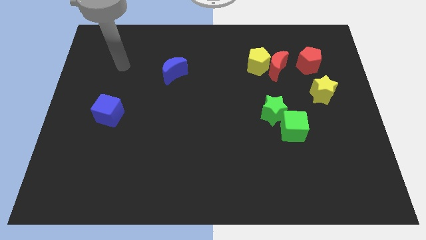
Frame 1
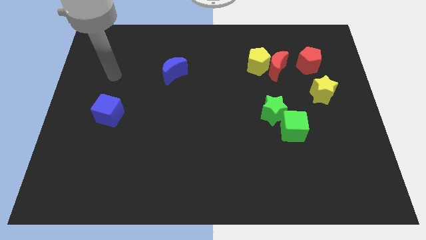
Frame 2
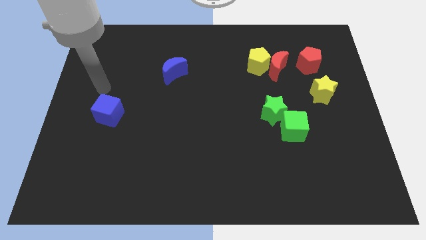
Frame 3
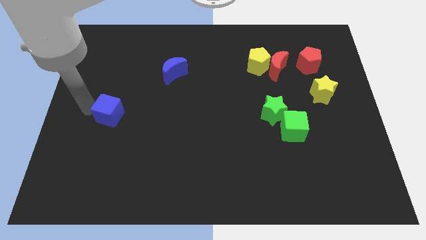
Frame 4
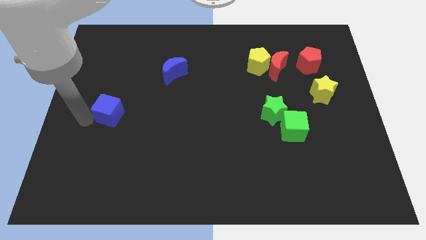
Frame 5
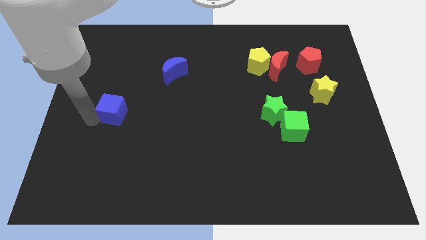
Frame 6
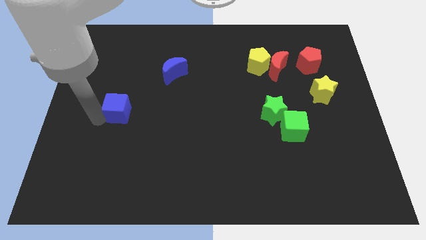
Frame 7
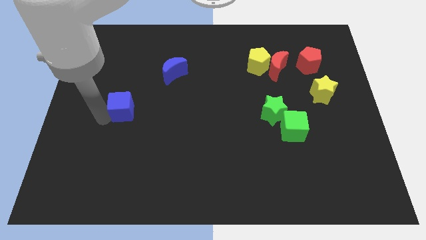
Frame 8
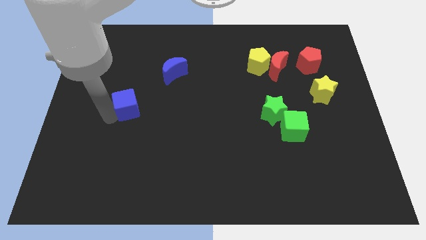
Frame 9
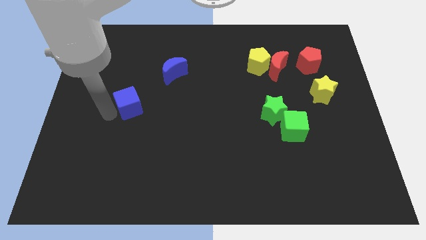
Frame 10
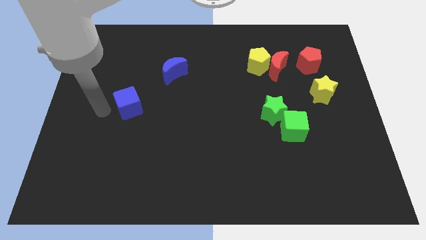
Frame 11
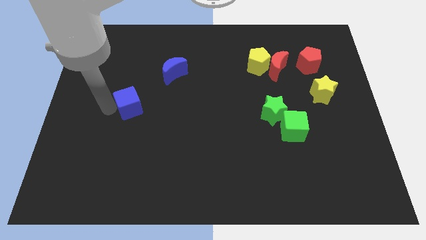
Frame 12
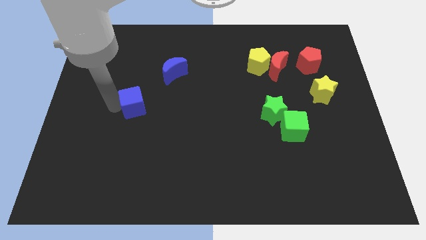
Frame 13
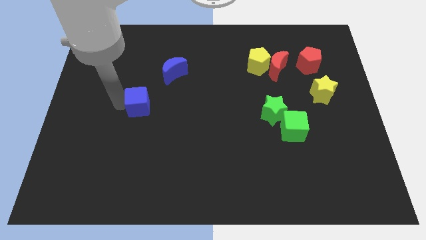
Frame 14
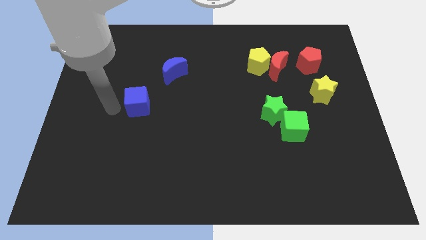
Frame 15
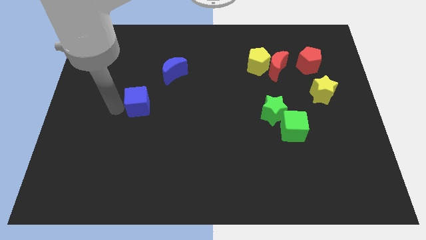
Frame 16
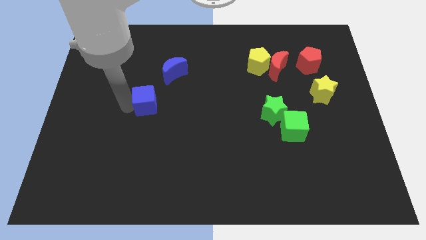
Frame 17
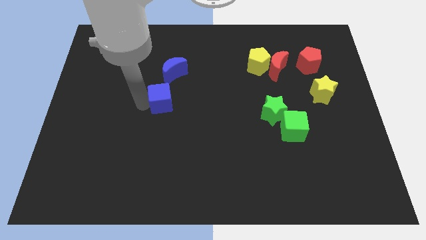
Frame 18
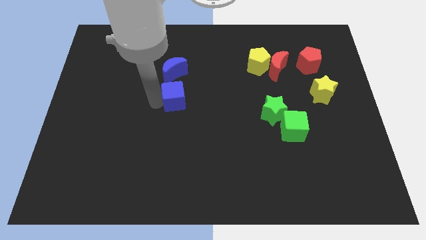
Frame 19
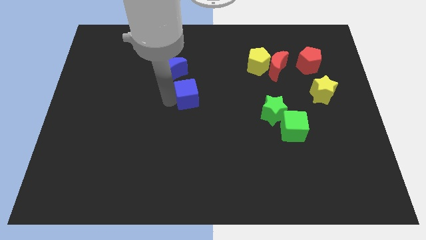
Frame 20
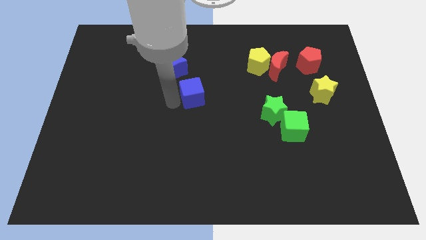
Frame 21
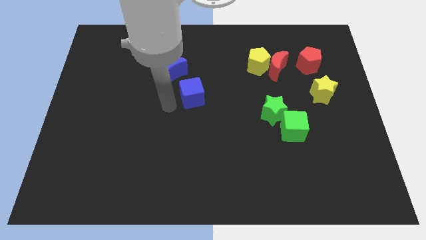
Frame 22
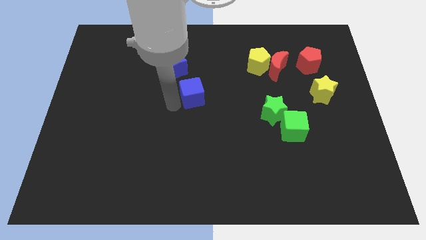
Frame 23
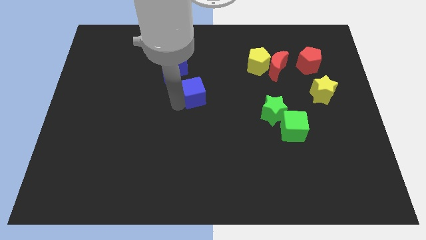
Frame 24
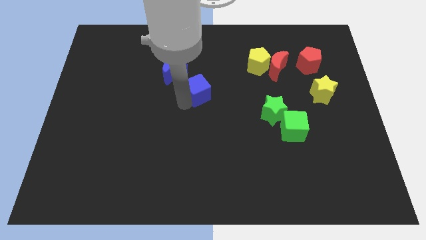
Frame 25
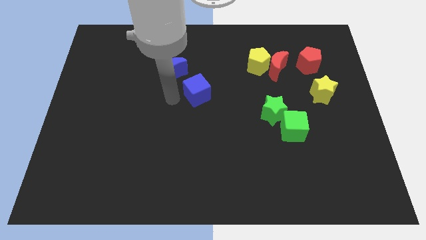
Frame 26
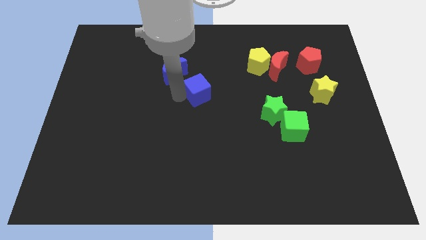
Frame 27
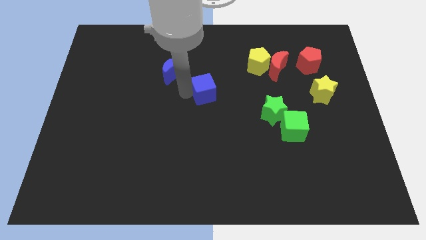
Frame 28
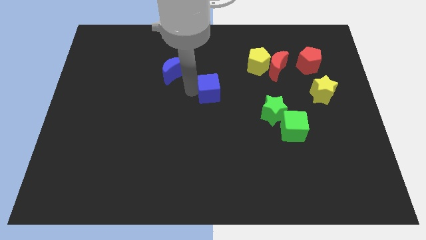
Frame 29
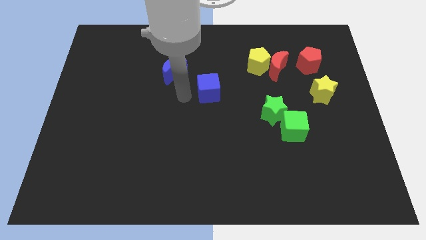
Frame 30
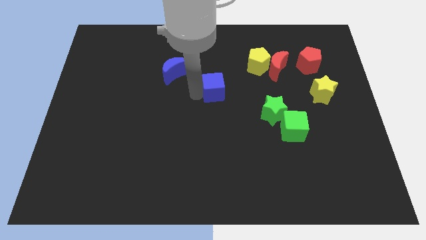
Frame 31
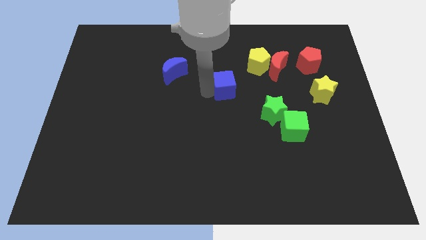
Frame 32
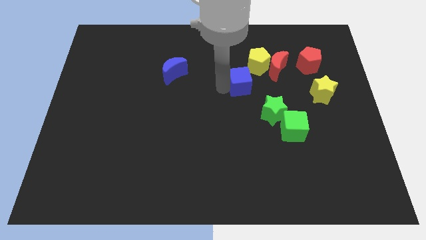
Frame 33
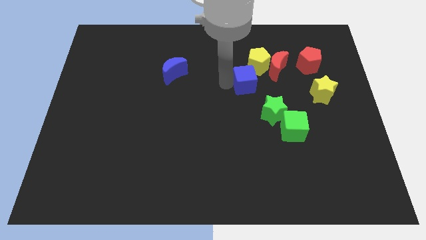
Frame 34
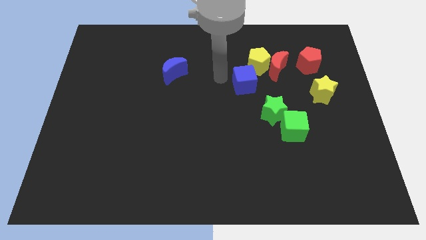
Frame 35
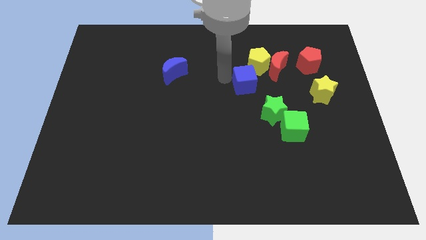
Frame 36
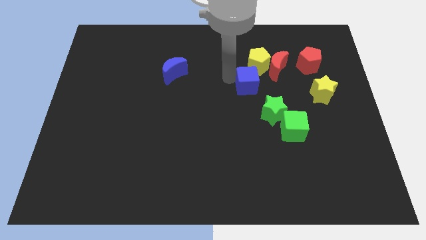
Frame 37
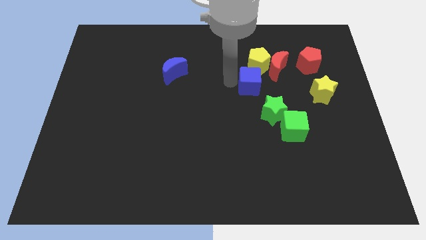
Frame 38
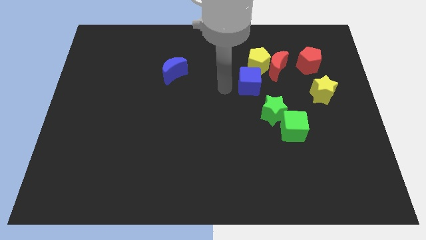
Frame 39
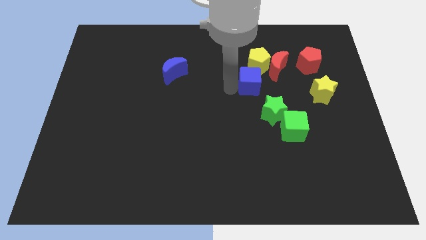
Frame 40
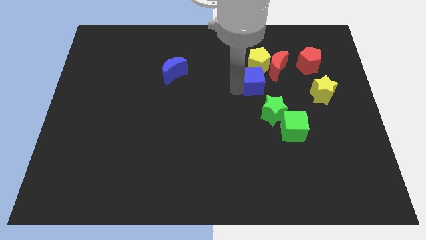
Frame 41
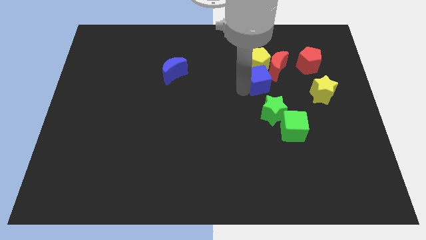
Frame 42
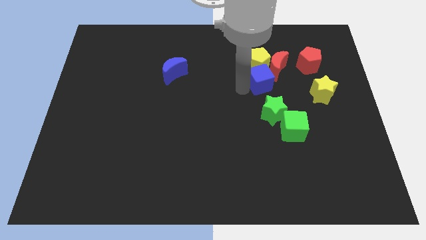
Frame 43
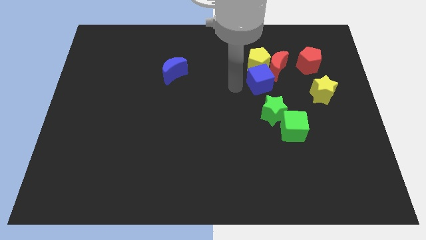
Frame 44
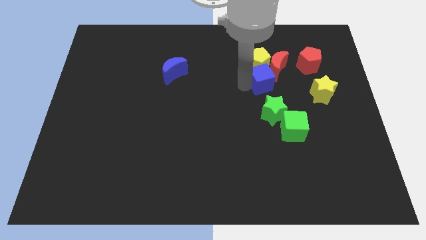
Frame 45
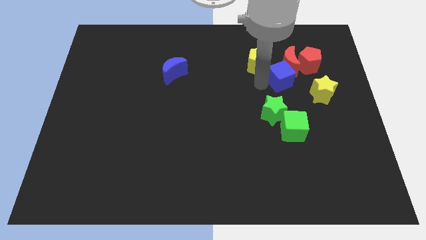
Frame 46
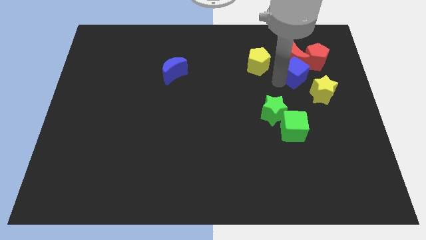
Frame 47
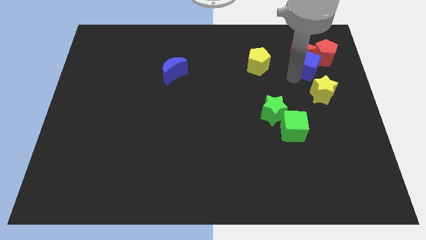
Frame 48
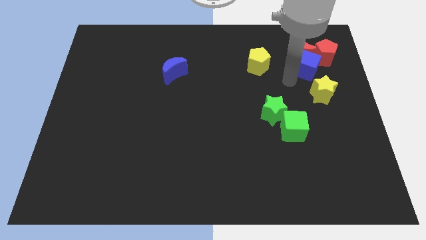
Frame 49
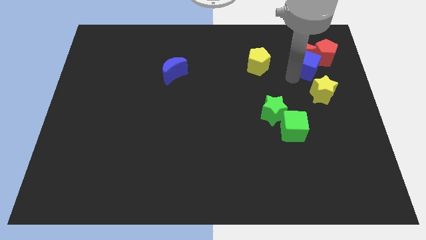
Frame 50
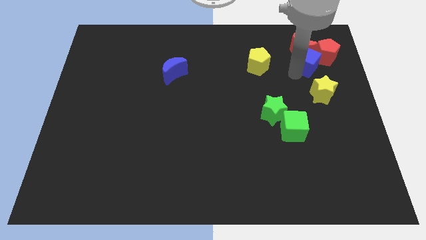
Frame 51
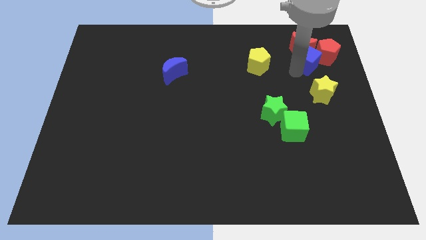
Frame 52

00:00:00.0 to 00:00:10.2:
push the blue cube to the red pentagon

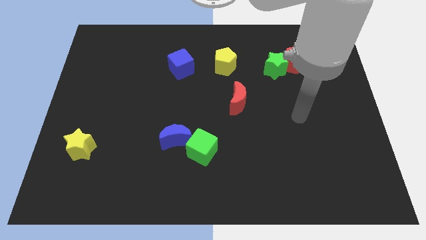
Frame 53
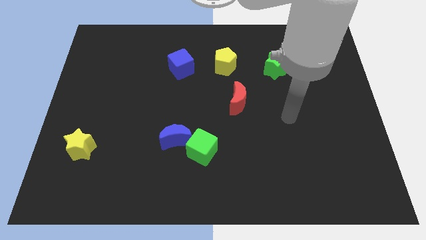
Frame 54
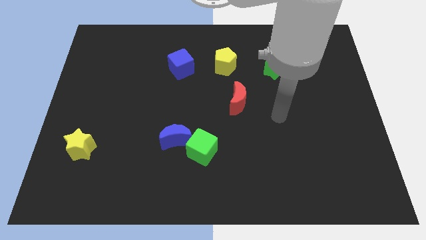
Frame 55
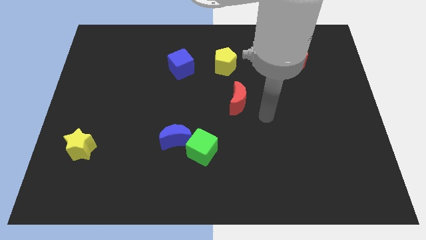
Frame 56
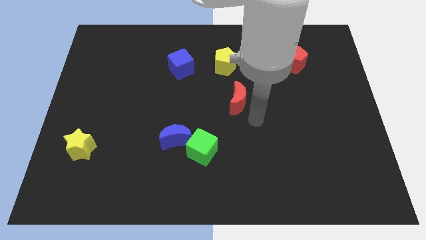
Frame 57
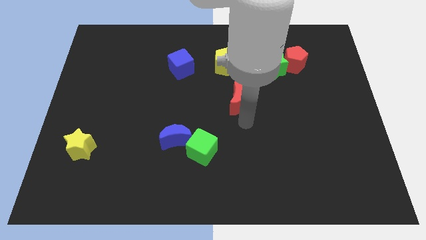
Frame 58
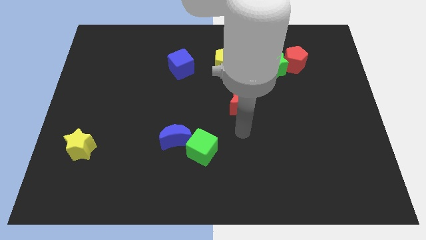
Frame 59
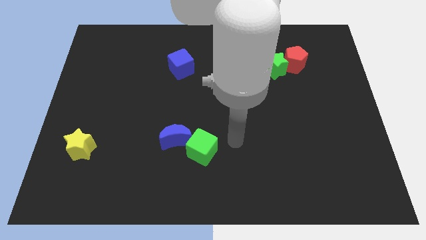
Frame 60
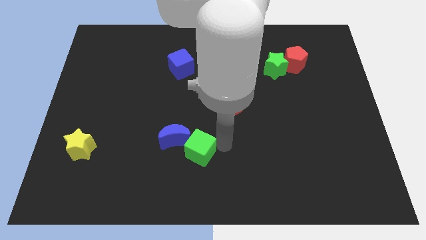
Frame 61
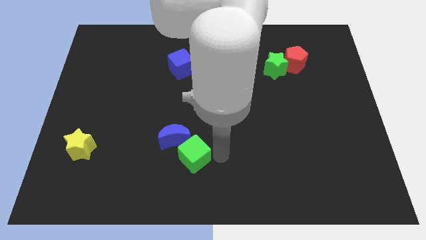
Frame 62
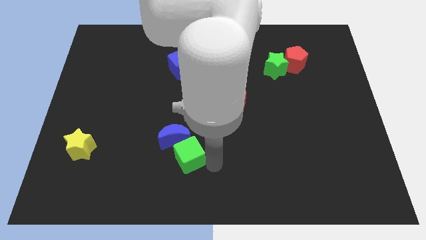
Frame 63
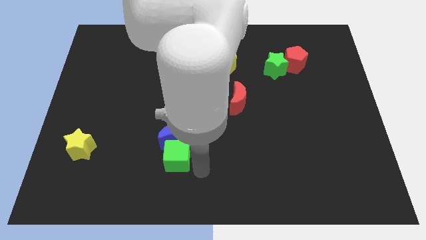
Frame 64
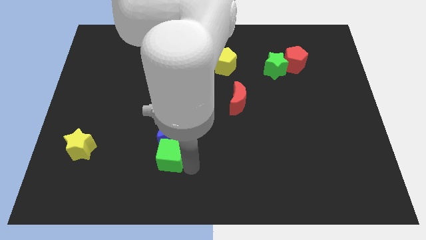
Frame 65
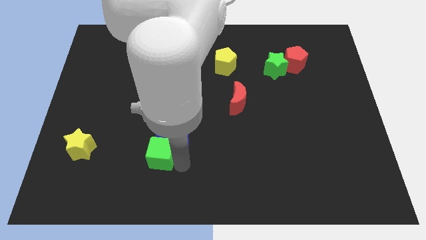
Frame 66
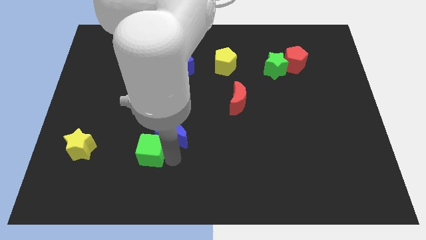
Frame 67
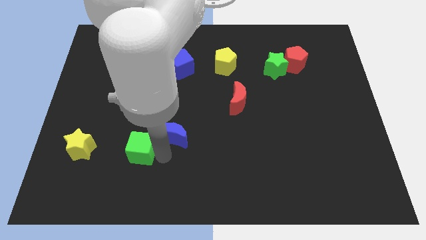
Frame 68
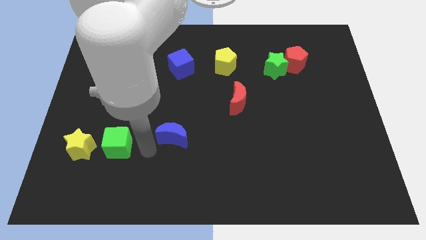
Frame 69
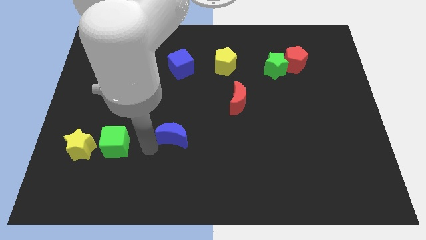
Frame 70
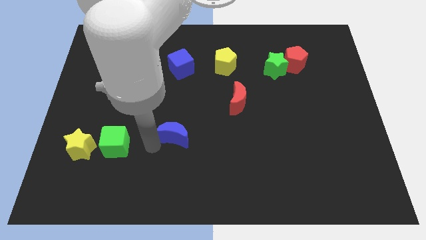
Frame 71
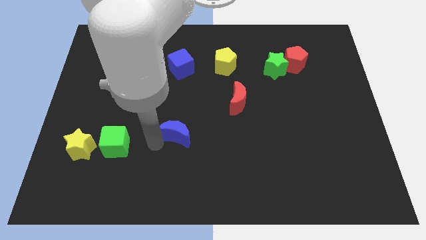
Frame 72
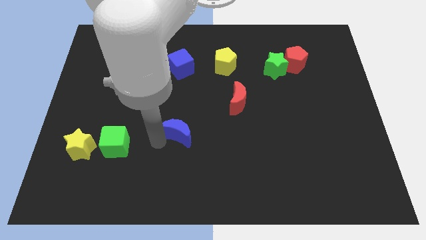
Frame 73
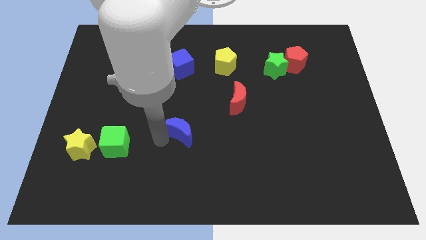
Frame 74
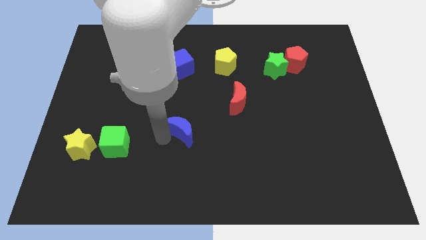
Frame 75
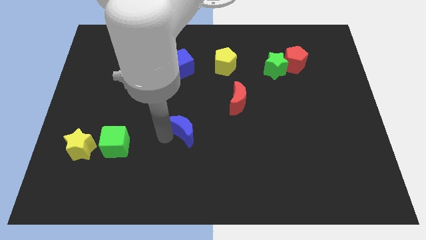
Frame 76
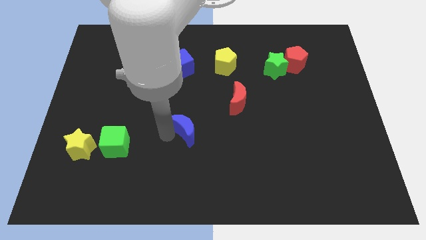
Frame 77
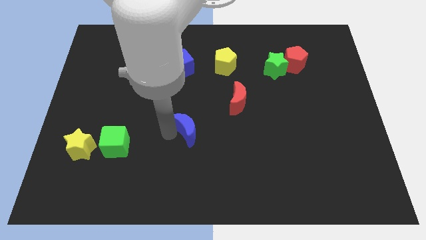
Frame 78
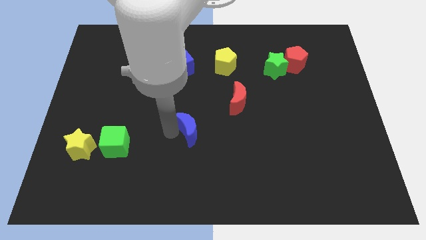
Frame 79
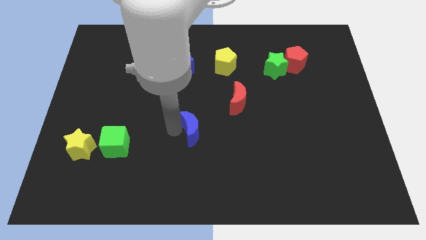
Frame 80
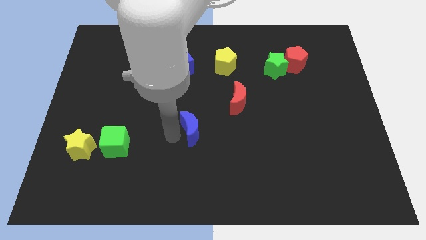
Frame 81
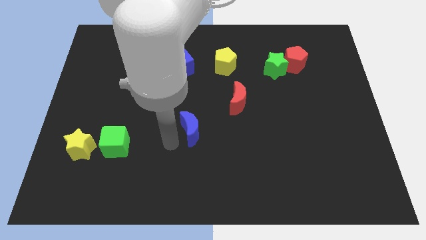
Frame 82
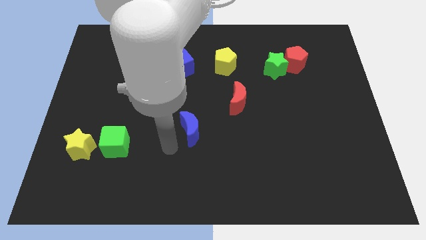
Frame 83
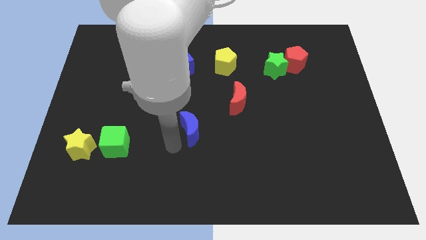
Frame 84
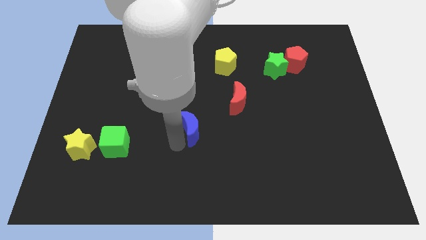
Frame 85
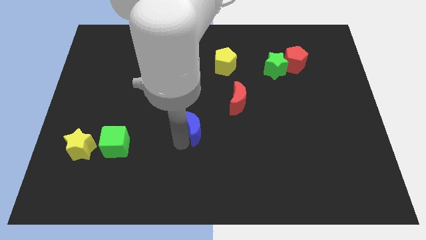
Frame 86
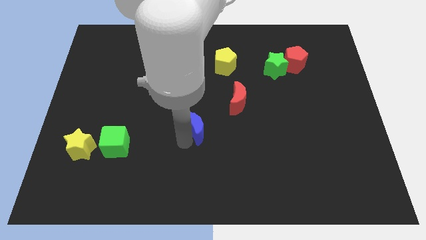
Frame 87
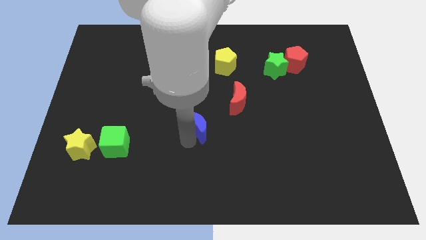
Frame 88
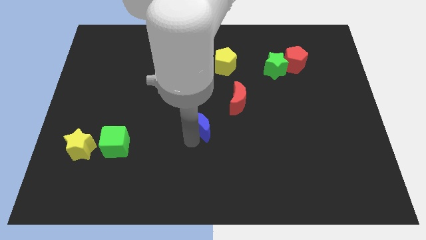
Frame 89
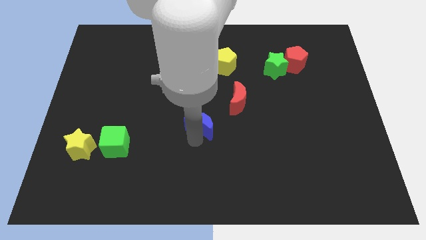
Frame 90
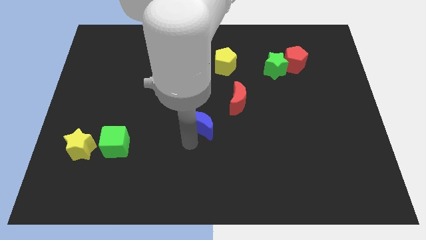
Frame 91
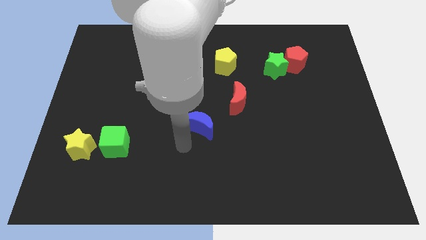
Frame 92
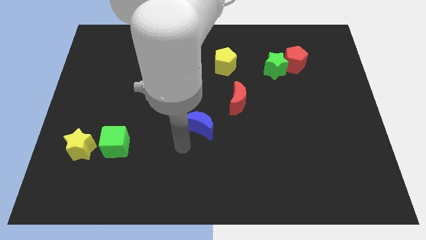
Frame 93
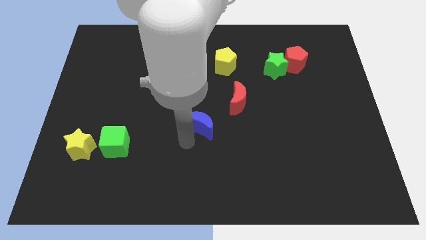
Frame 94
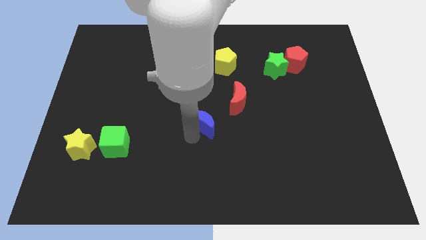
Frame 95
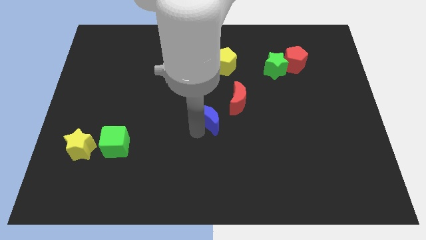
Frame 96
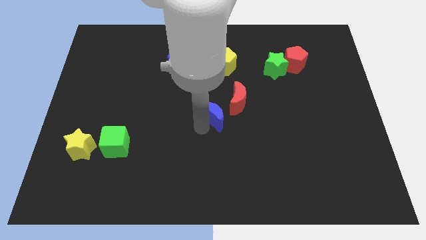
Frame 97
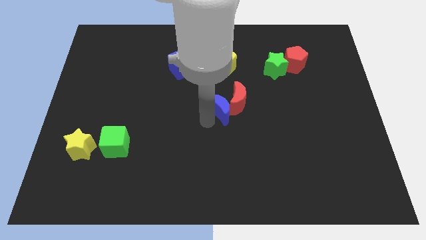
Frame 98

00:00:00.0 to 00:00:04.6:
move the blue moon close to the red moon
